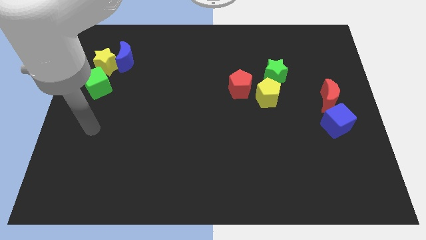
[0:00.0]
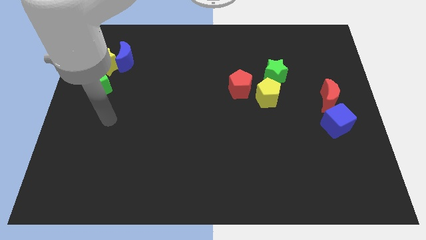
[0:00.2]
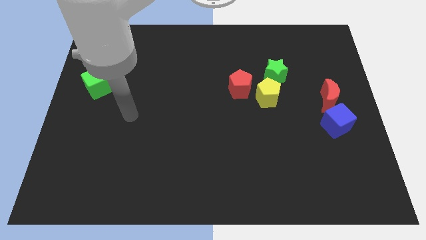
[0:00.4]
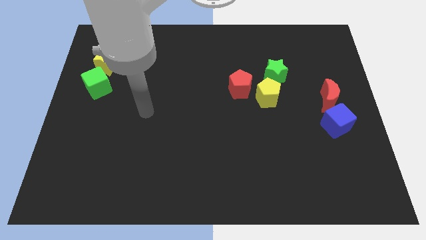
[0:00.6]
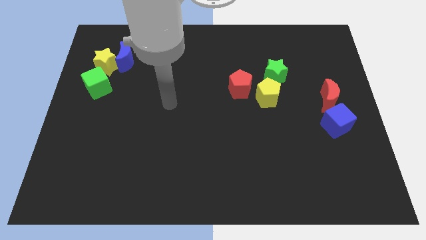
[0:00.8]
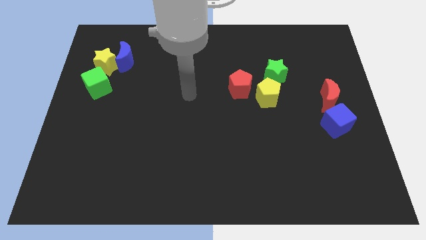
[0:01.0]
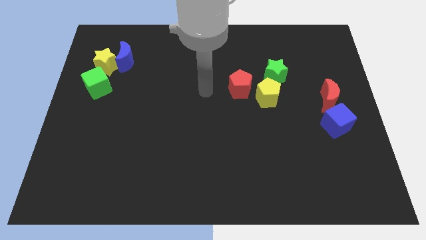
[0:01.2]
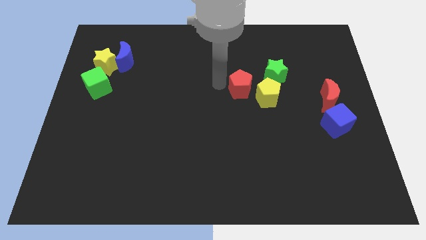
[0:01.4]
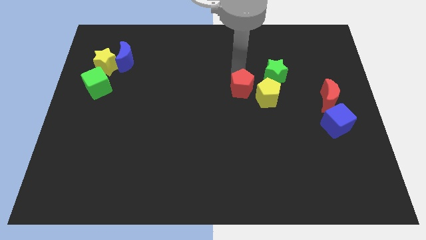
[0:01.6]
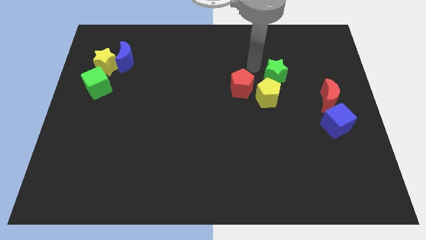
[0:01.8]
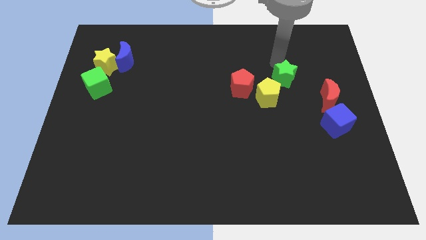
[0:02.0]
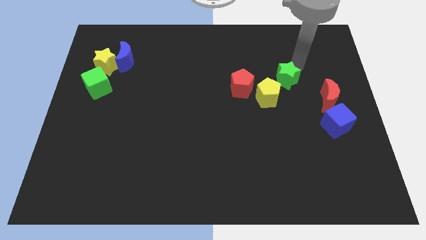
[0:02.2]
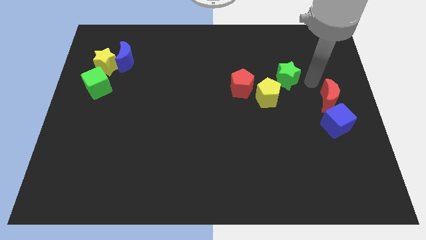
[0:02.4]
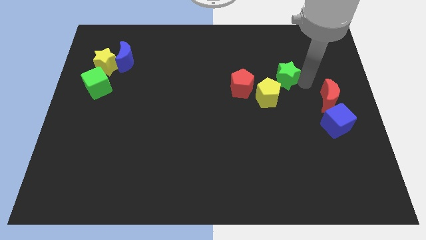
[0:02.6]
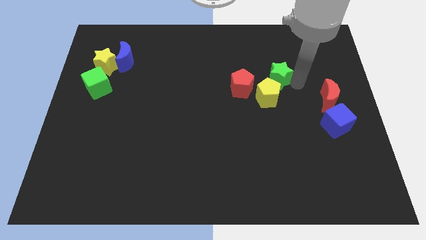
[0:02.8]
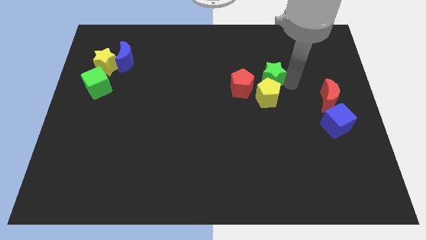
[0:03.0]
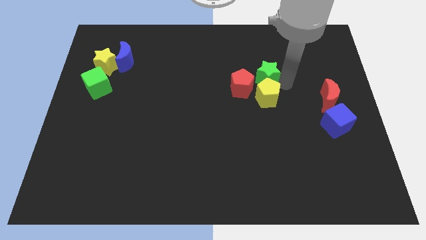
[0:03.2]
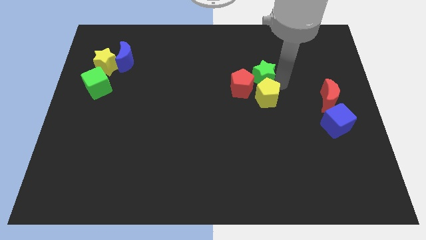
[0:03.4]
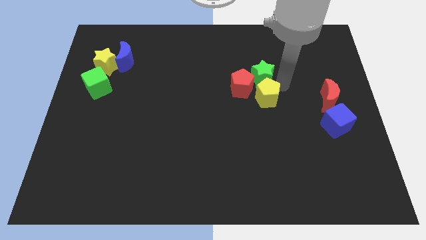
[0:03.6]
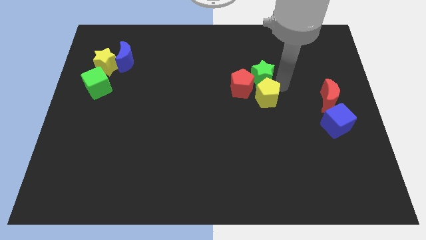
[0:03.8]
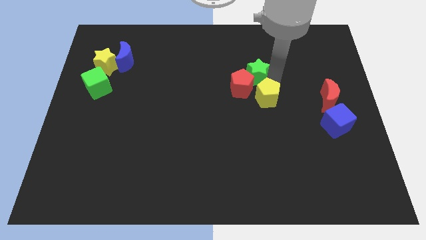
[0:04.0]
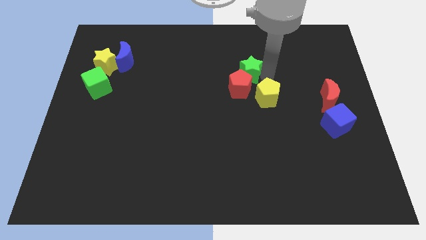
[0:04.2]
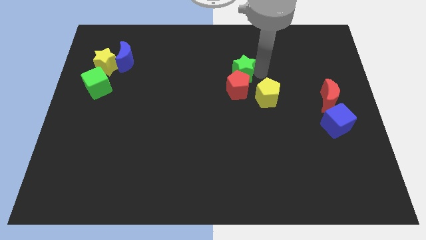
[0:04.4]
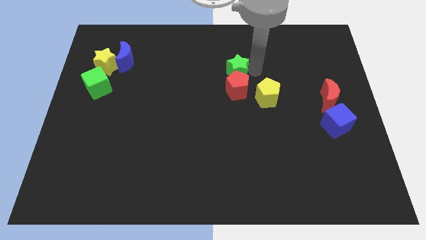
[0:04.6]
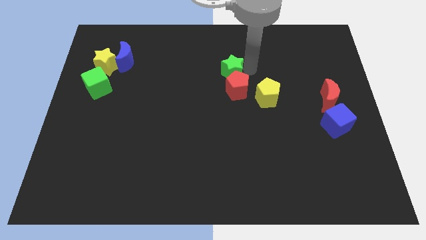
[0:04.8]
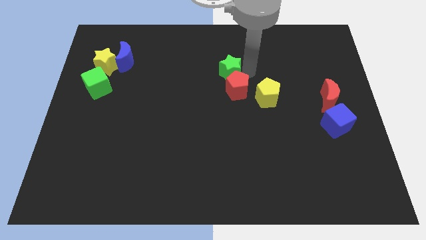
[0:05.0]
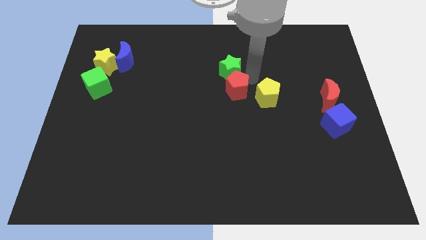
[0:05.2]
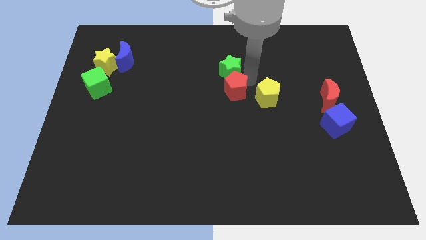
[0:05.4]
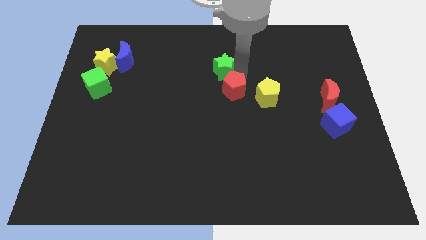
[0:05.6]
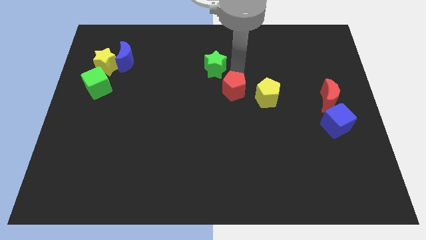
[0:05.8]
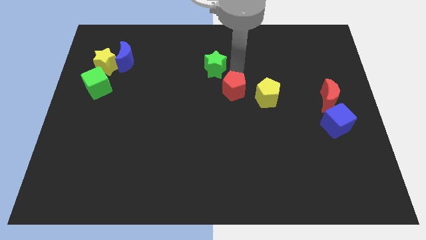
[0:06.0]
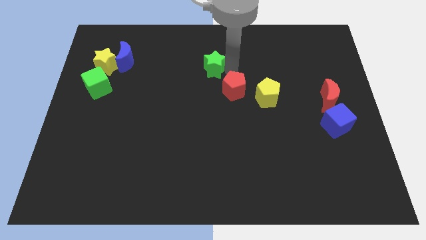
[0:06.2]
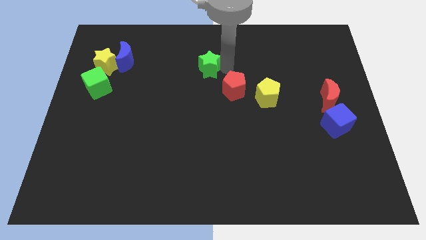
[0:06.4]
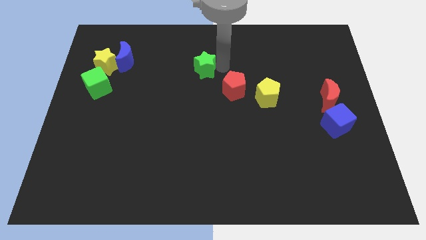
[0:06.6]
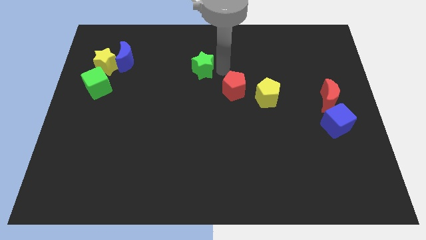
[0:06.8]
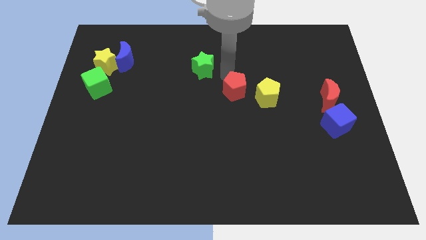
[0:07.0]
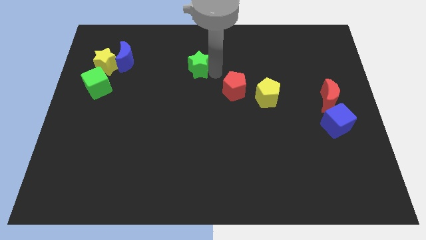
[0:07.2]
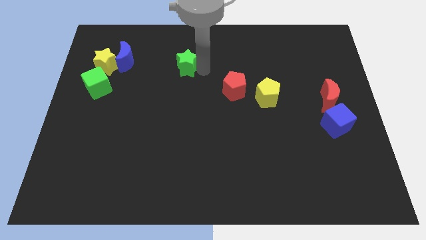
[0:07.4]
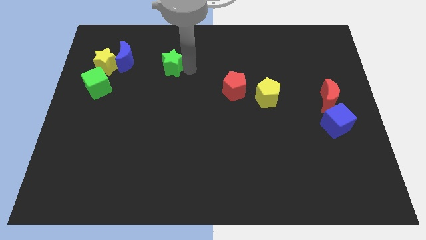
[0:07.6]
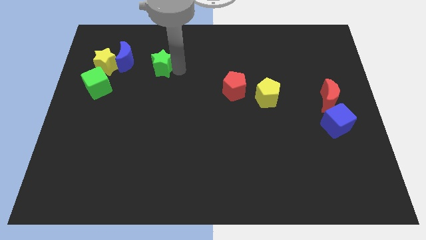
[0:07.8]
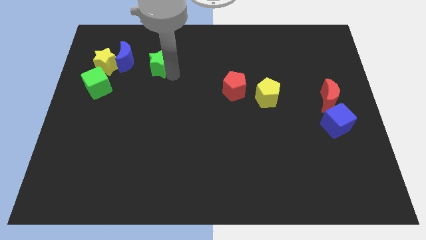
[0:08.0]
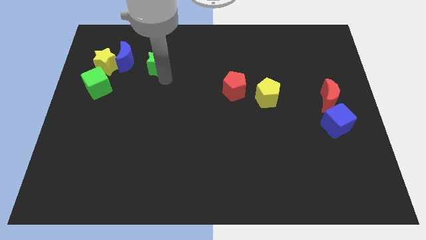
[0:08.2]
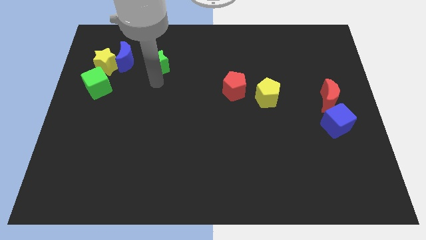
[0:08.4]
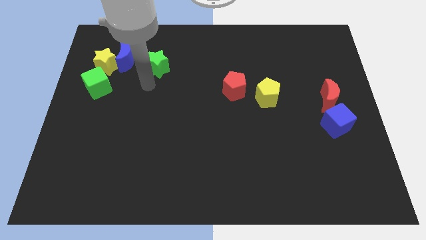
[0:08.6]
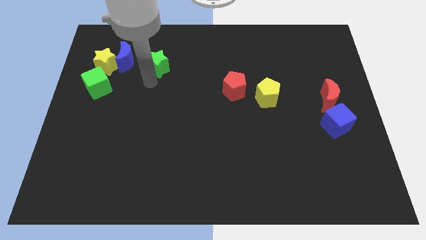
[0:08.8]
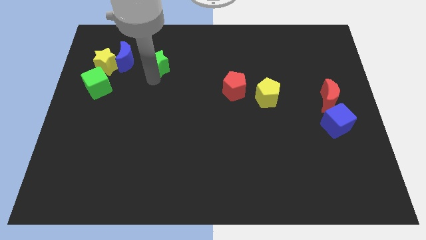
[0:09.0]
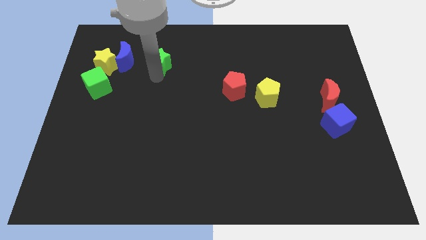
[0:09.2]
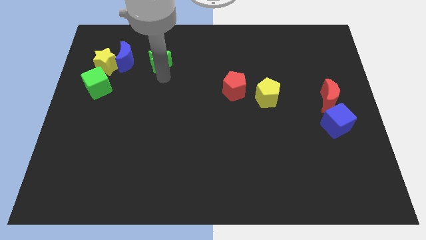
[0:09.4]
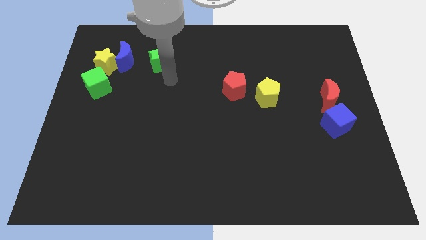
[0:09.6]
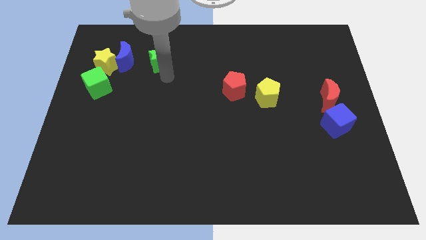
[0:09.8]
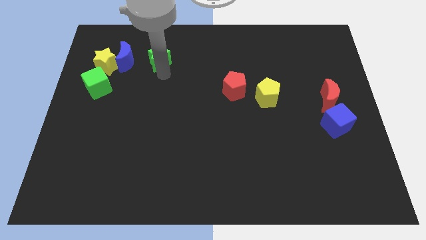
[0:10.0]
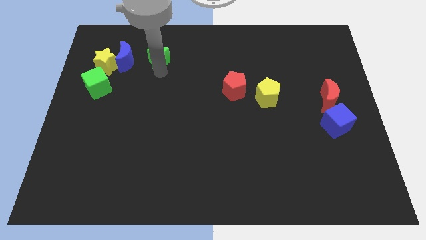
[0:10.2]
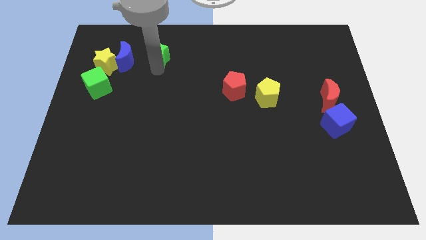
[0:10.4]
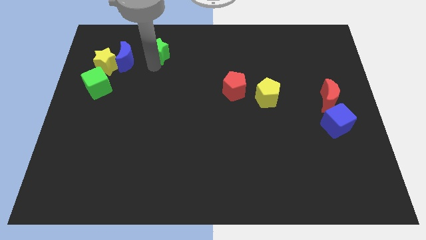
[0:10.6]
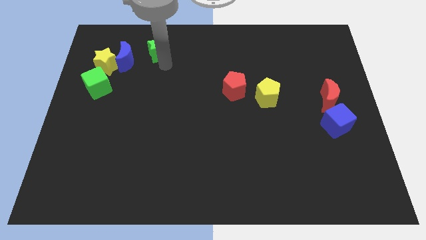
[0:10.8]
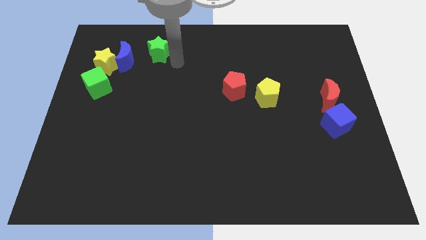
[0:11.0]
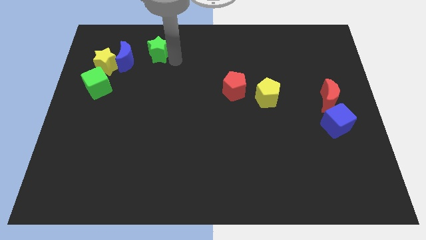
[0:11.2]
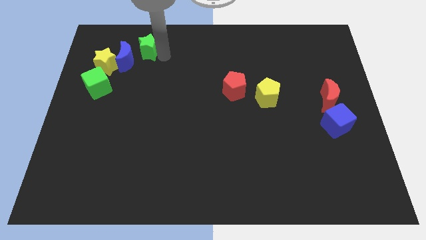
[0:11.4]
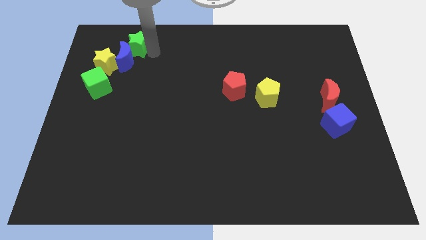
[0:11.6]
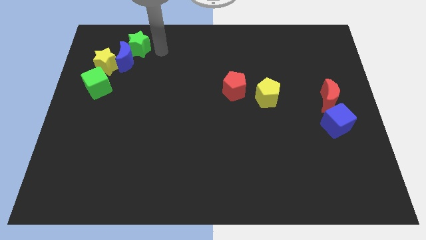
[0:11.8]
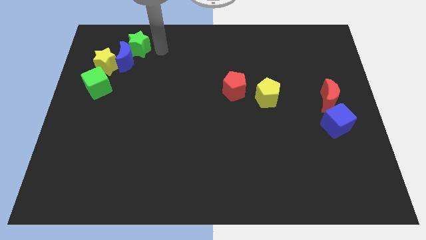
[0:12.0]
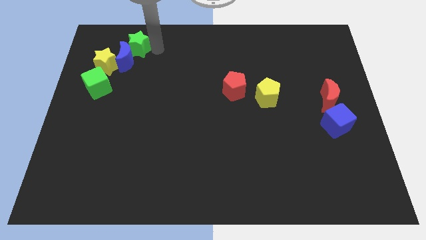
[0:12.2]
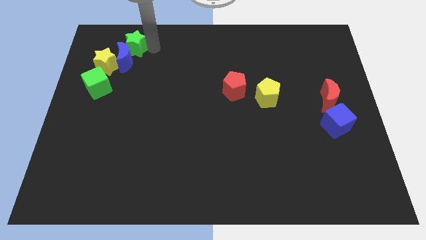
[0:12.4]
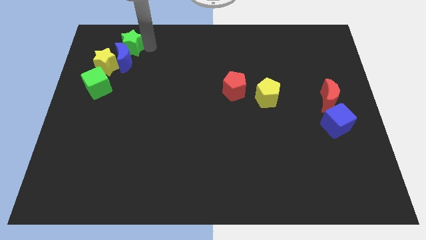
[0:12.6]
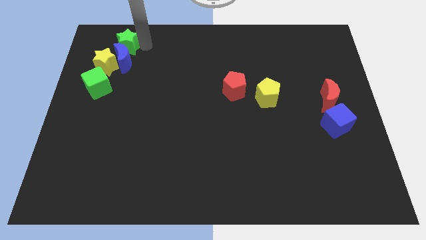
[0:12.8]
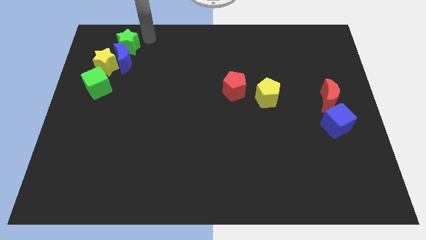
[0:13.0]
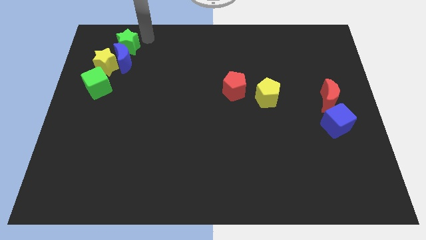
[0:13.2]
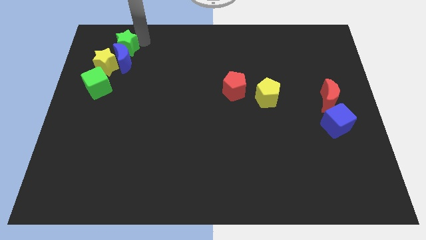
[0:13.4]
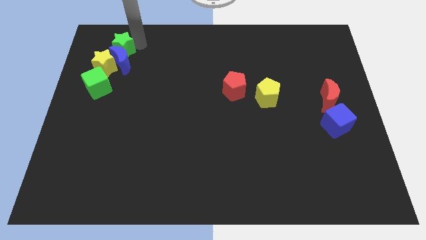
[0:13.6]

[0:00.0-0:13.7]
move the green star to the top of the green cube
